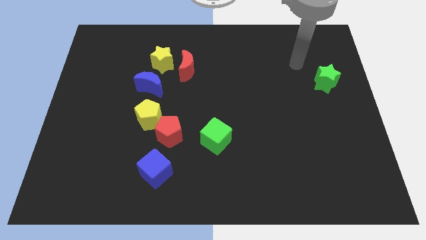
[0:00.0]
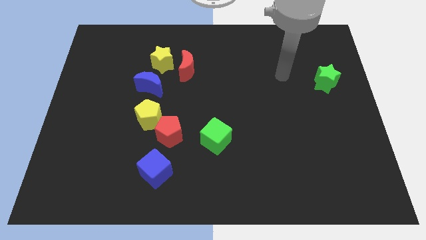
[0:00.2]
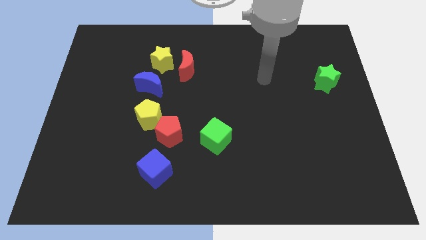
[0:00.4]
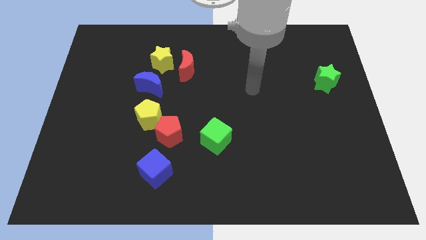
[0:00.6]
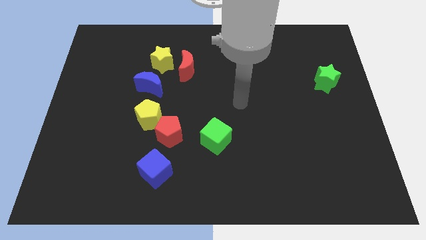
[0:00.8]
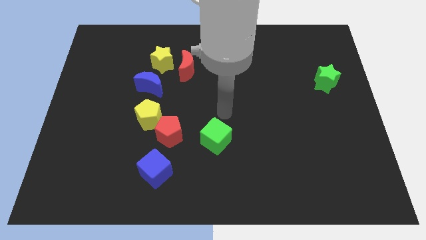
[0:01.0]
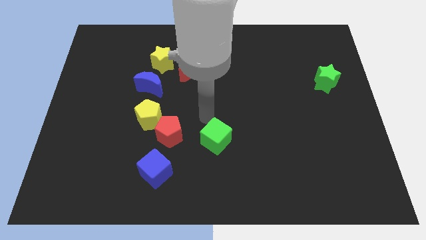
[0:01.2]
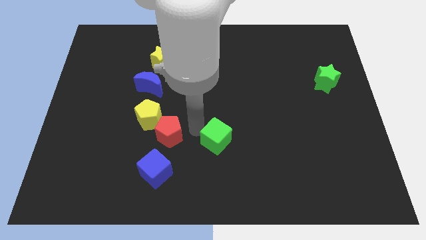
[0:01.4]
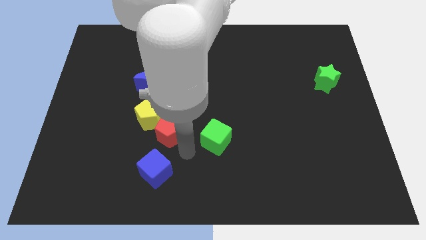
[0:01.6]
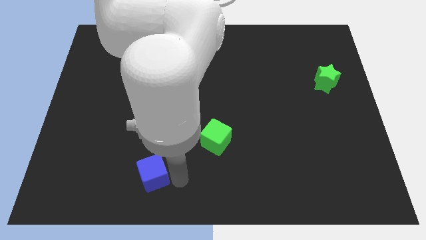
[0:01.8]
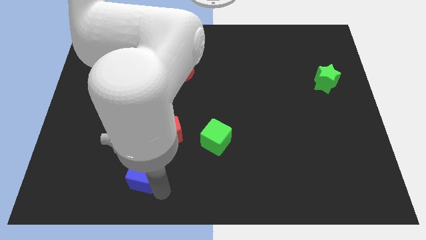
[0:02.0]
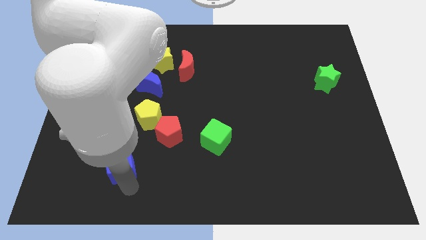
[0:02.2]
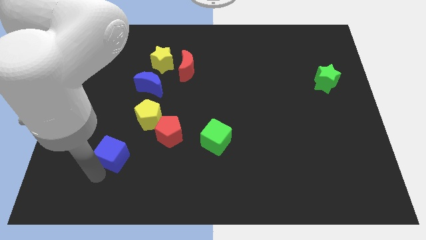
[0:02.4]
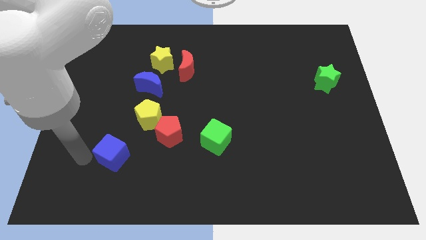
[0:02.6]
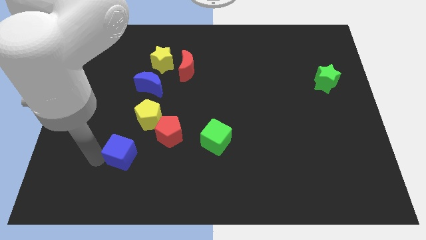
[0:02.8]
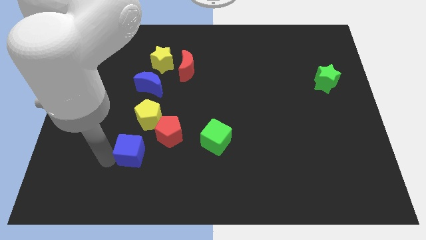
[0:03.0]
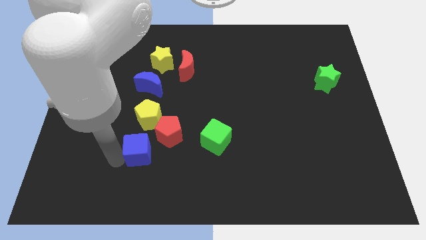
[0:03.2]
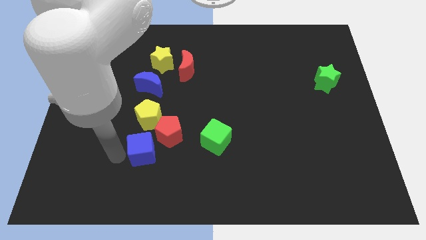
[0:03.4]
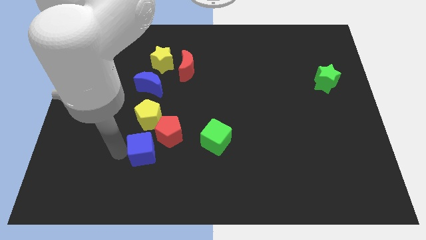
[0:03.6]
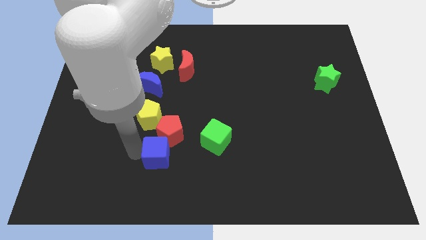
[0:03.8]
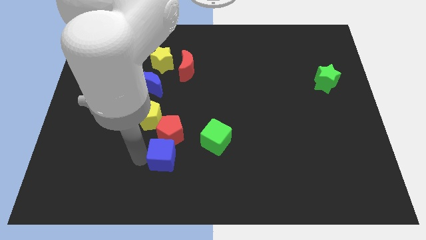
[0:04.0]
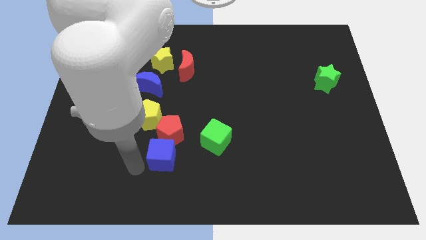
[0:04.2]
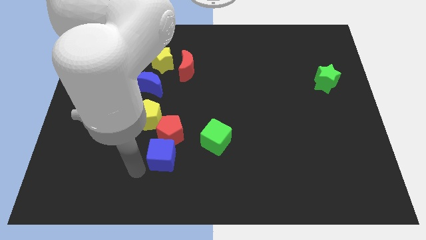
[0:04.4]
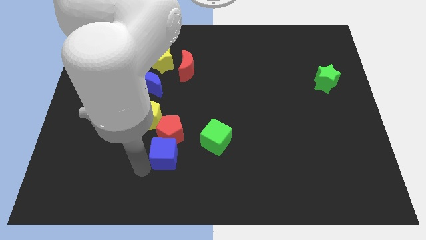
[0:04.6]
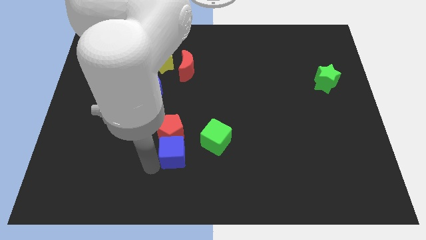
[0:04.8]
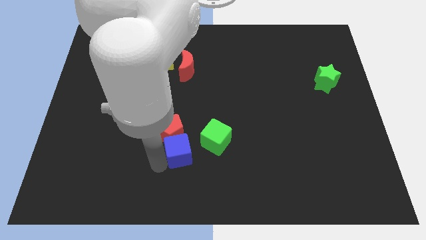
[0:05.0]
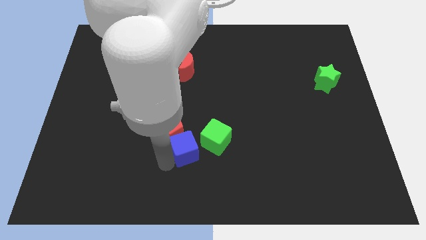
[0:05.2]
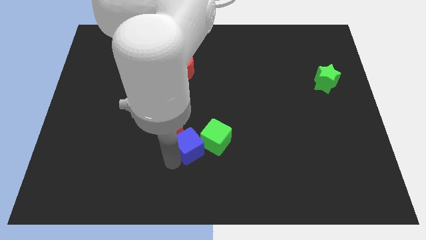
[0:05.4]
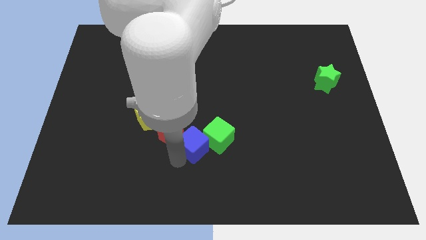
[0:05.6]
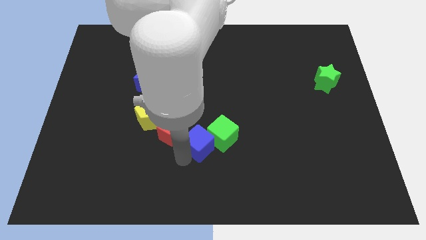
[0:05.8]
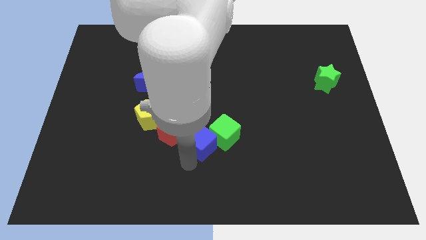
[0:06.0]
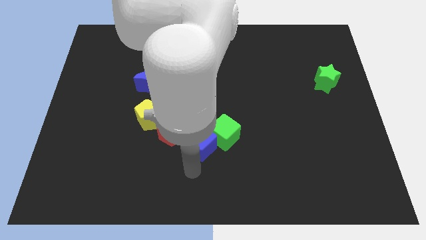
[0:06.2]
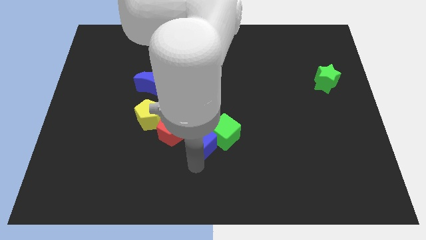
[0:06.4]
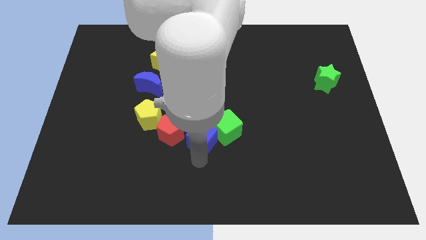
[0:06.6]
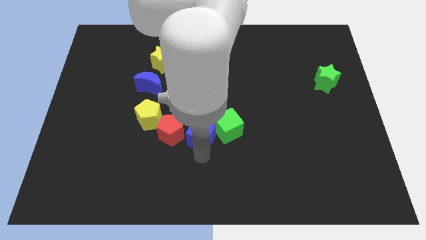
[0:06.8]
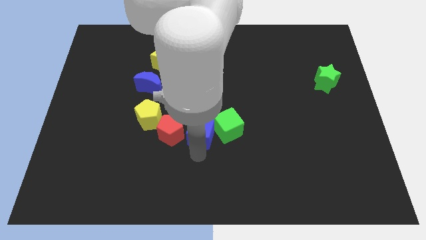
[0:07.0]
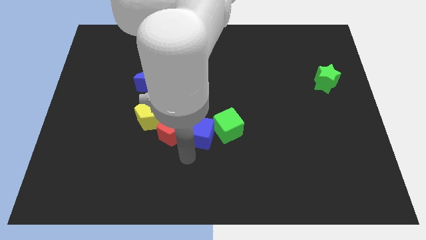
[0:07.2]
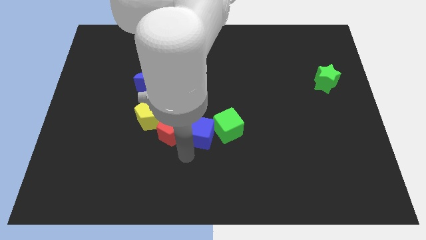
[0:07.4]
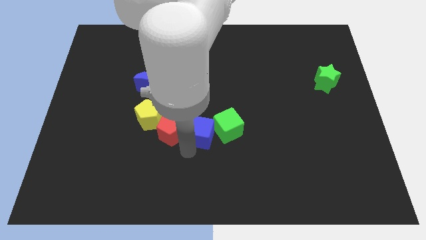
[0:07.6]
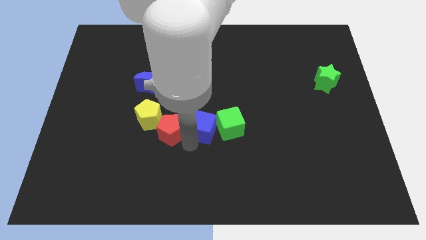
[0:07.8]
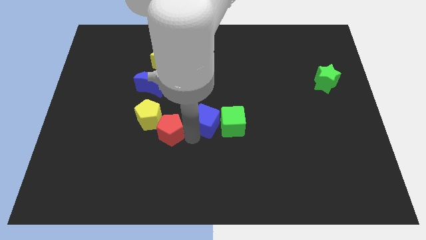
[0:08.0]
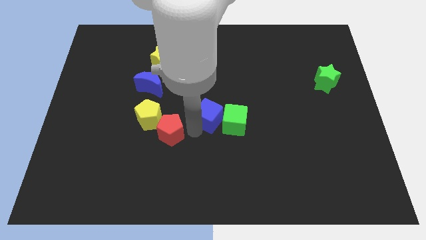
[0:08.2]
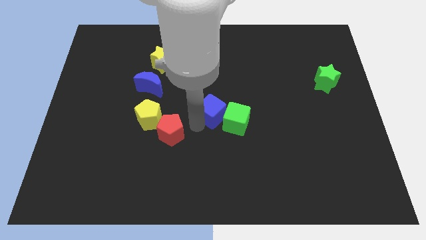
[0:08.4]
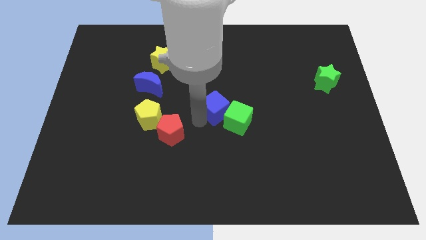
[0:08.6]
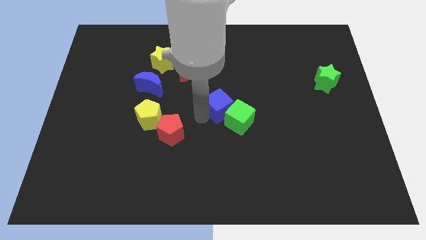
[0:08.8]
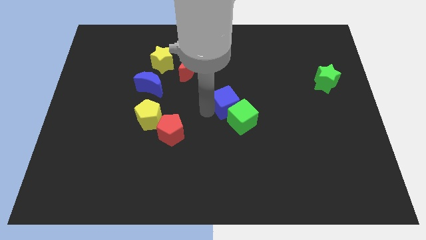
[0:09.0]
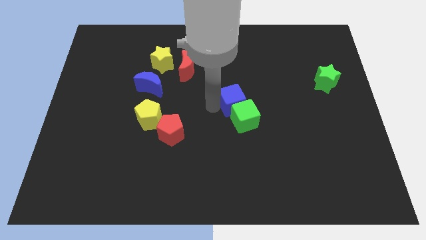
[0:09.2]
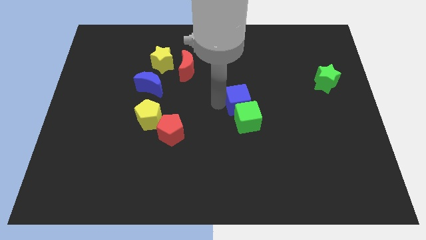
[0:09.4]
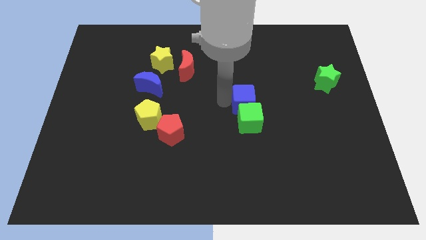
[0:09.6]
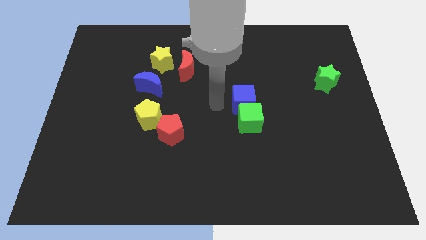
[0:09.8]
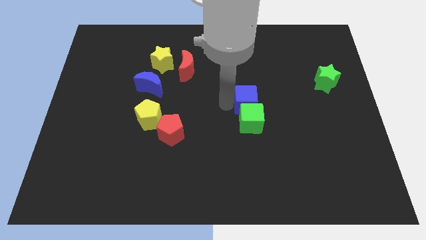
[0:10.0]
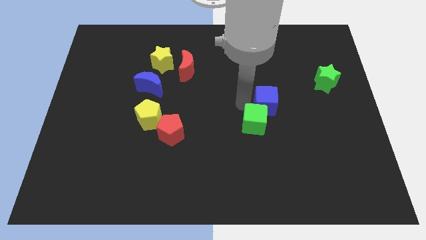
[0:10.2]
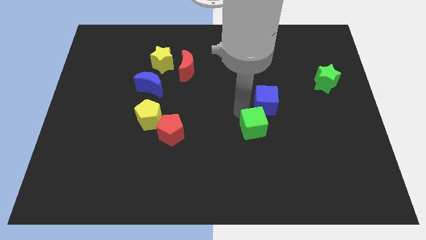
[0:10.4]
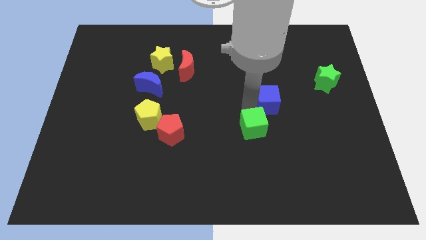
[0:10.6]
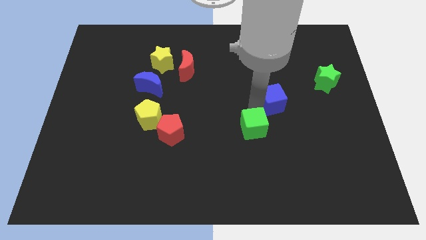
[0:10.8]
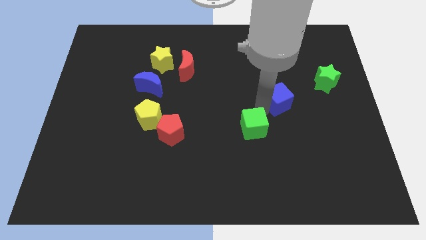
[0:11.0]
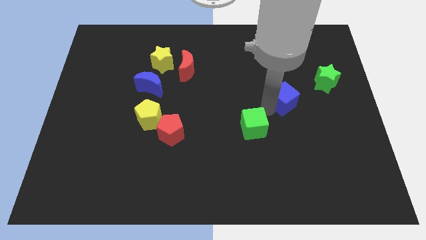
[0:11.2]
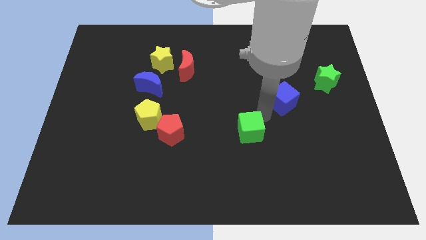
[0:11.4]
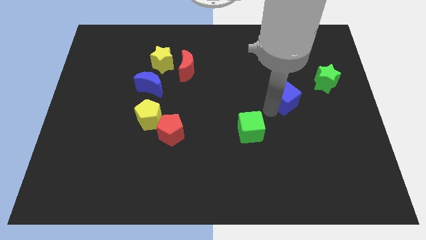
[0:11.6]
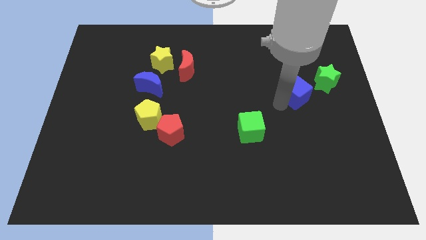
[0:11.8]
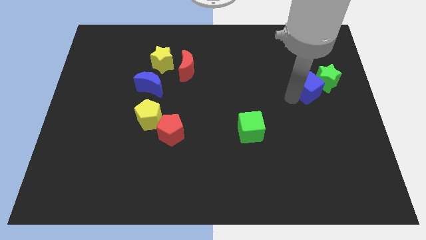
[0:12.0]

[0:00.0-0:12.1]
slide the blue cube to the green star

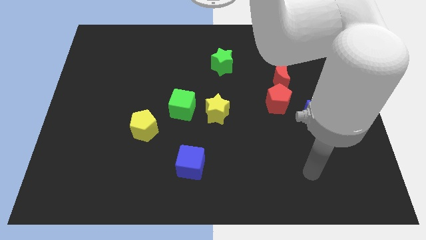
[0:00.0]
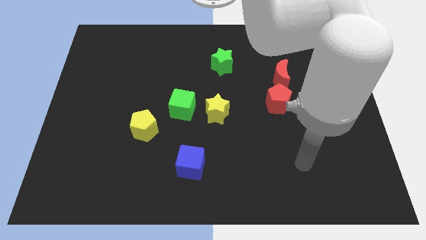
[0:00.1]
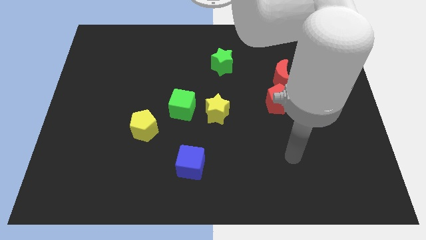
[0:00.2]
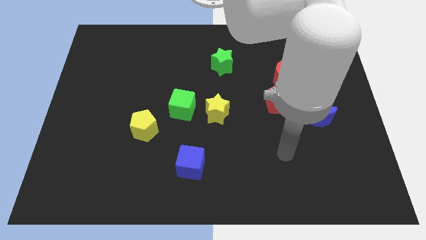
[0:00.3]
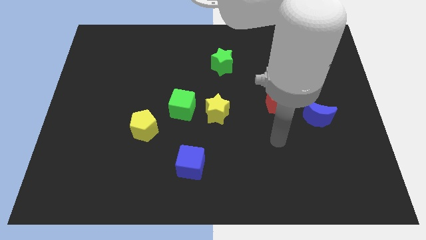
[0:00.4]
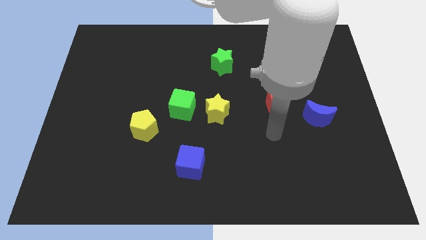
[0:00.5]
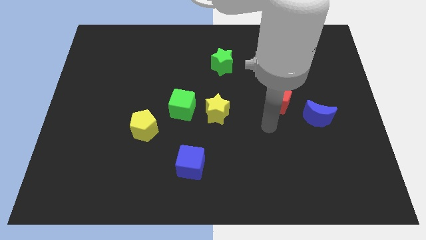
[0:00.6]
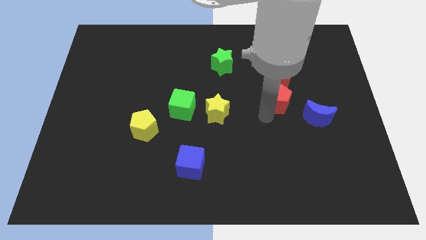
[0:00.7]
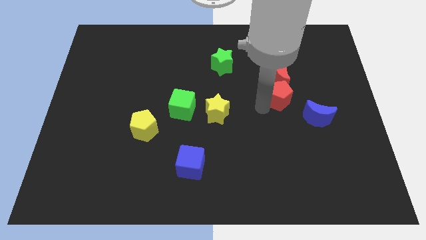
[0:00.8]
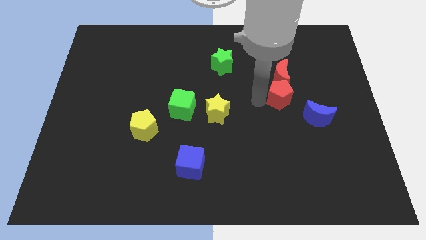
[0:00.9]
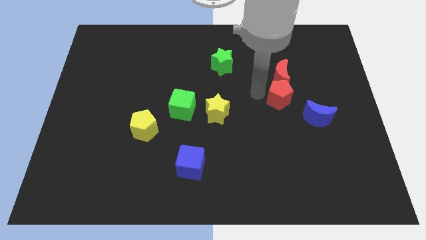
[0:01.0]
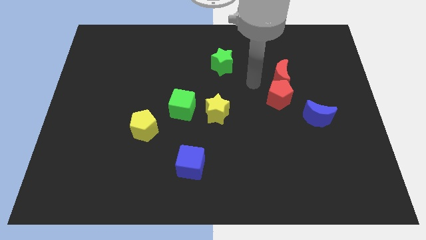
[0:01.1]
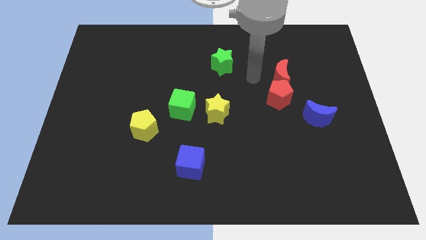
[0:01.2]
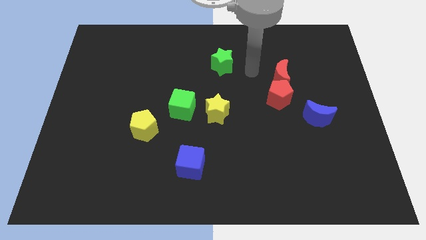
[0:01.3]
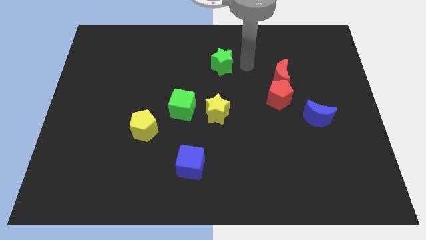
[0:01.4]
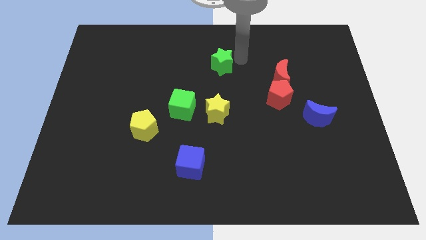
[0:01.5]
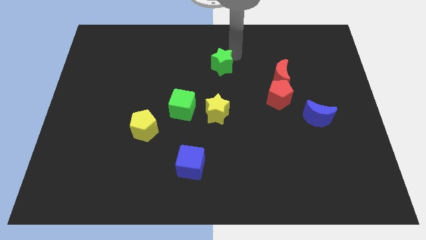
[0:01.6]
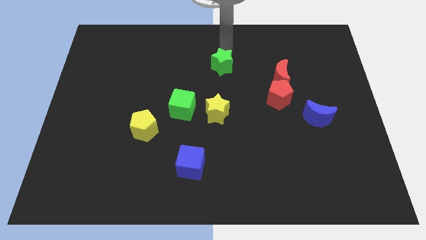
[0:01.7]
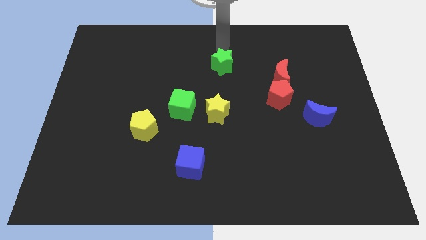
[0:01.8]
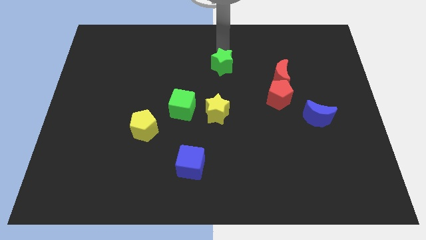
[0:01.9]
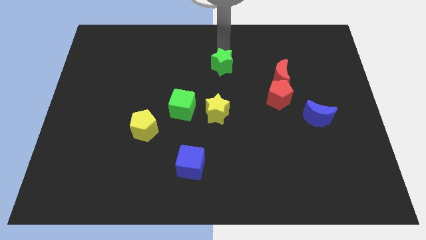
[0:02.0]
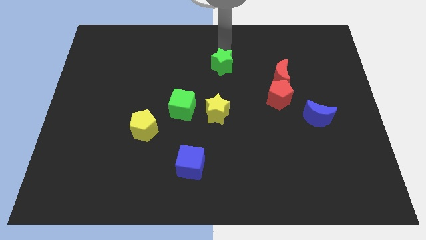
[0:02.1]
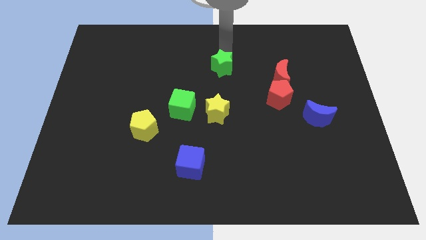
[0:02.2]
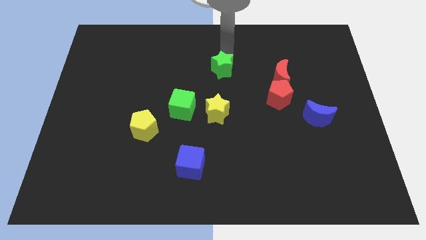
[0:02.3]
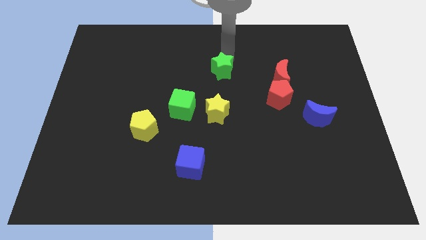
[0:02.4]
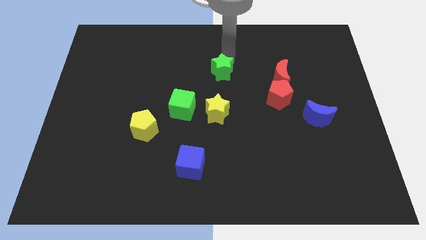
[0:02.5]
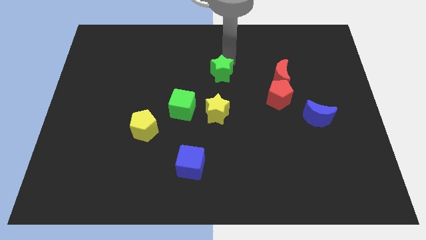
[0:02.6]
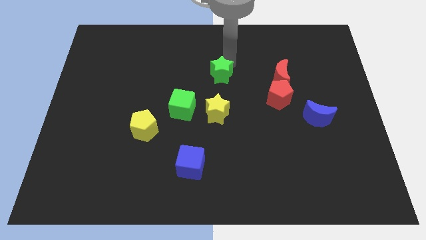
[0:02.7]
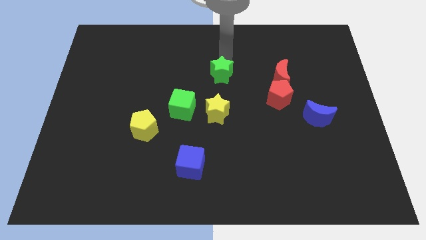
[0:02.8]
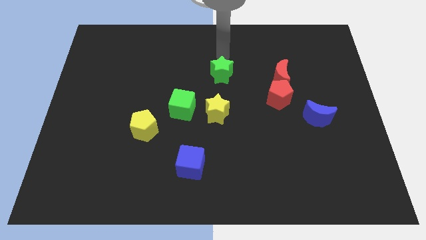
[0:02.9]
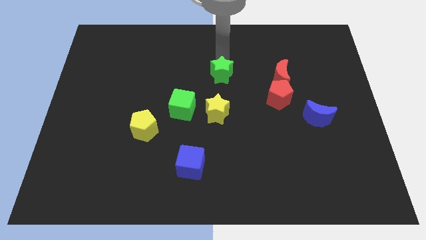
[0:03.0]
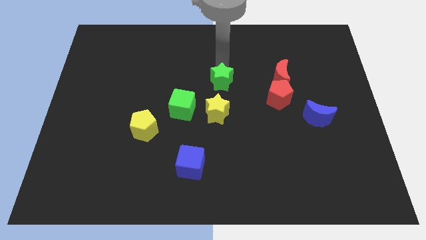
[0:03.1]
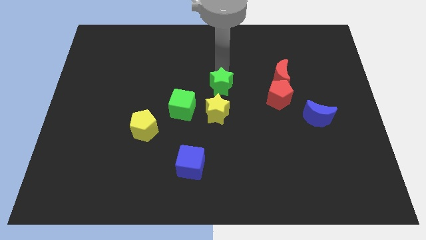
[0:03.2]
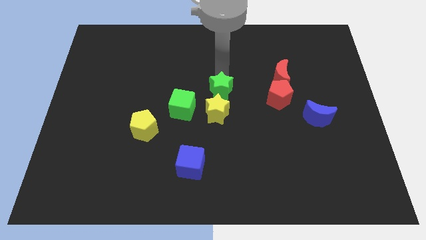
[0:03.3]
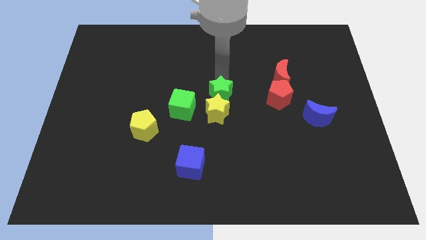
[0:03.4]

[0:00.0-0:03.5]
move the green star next to the yellow star
